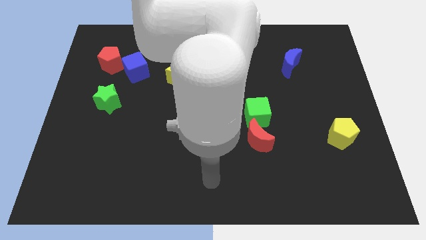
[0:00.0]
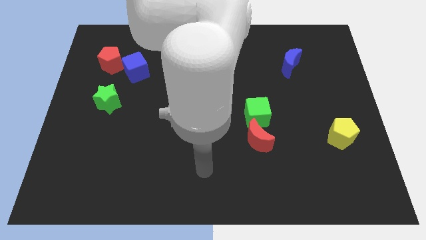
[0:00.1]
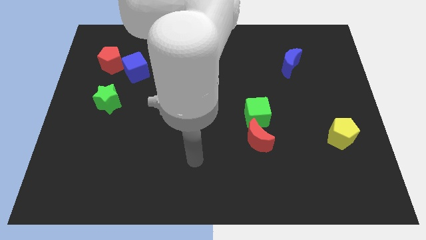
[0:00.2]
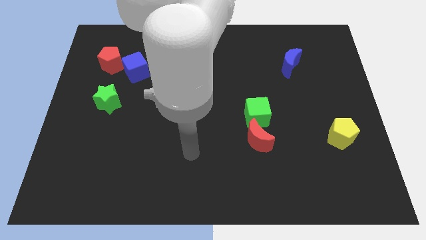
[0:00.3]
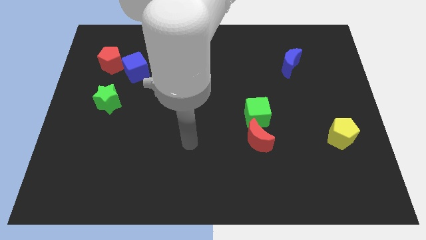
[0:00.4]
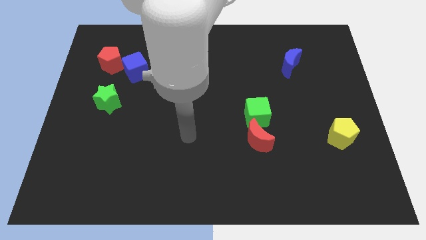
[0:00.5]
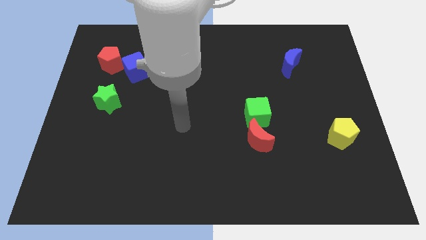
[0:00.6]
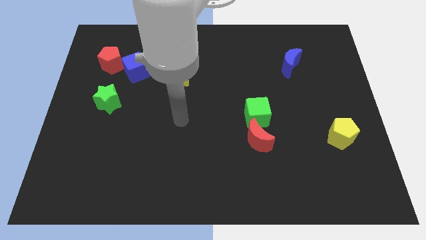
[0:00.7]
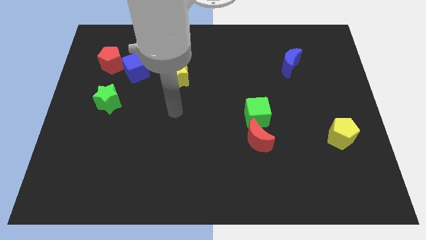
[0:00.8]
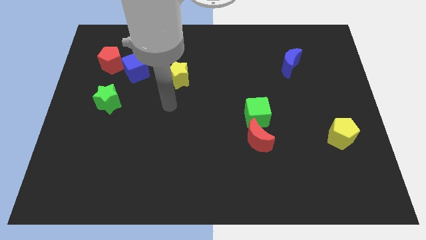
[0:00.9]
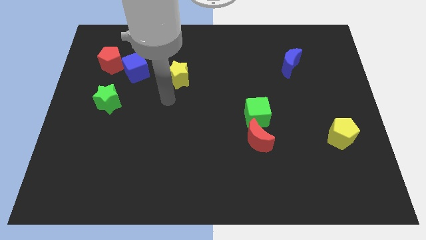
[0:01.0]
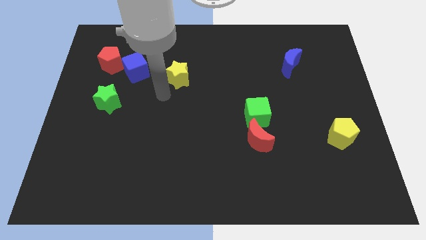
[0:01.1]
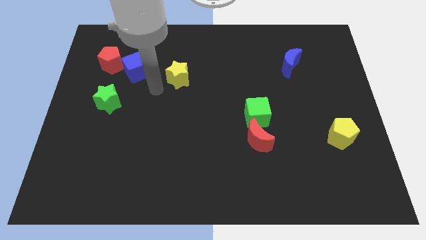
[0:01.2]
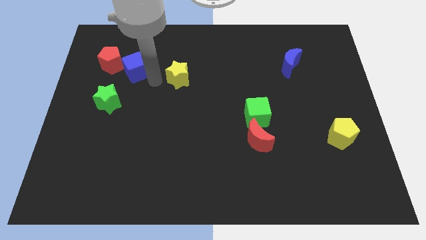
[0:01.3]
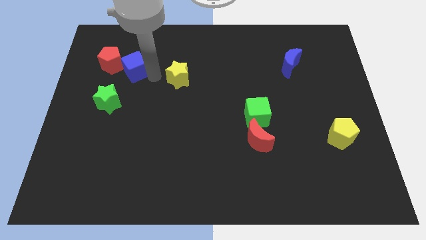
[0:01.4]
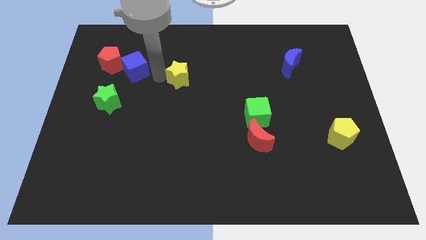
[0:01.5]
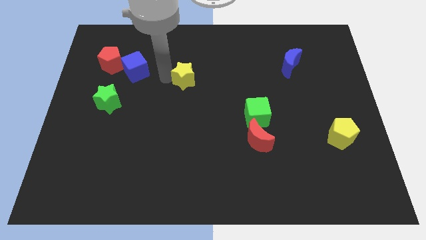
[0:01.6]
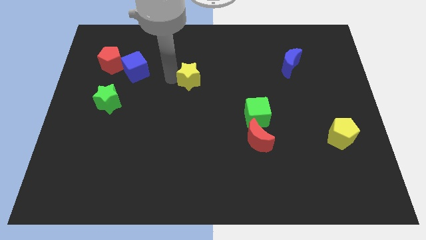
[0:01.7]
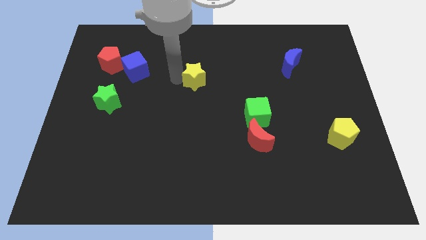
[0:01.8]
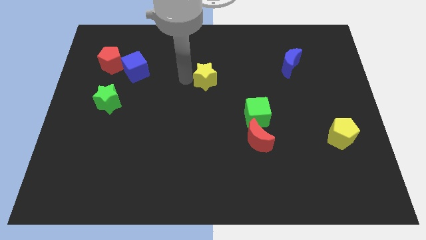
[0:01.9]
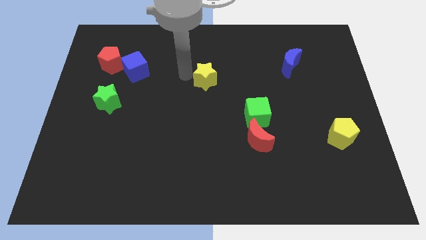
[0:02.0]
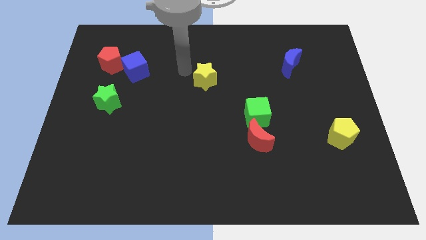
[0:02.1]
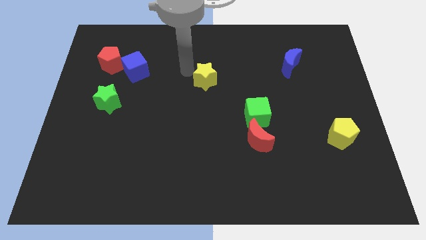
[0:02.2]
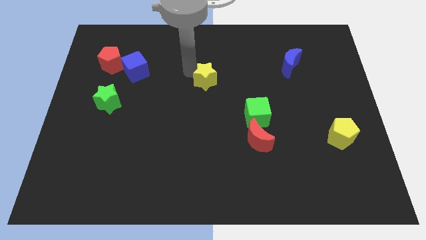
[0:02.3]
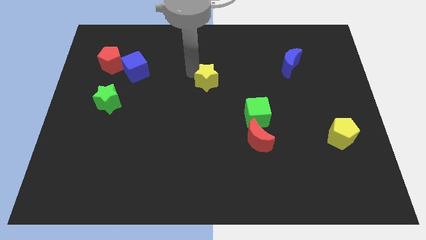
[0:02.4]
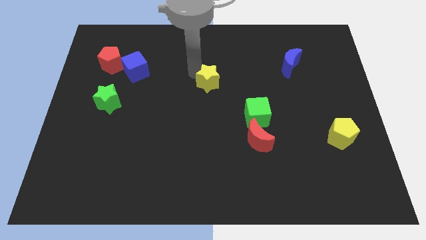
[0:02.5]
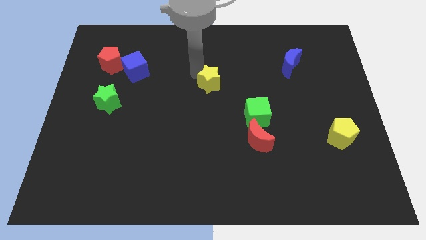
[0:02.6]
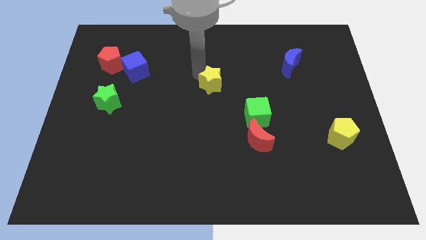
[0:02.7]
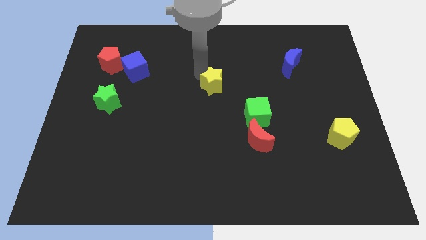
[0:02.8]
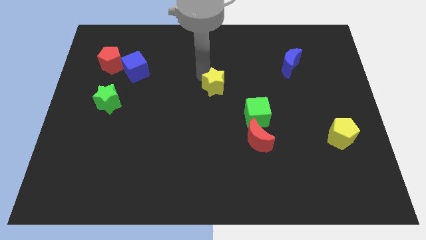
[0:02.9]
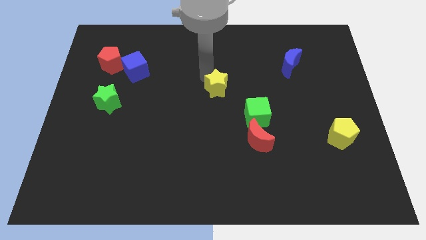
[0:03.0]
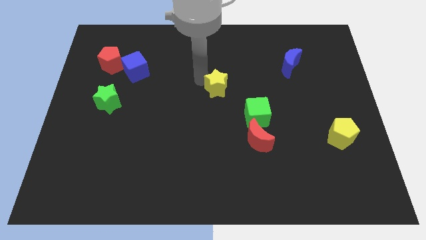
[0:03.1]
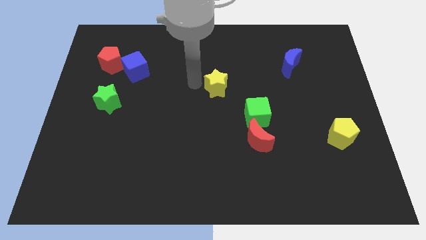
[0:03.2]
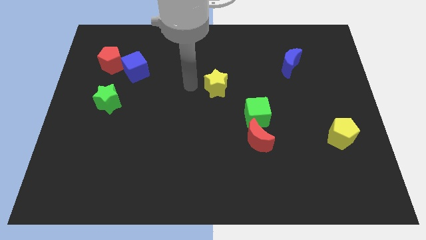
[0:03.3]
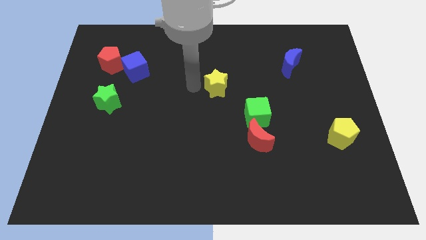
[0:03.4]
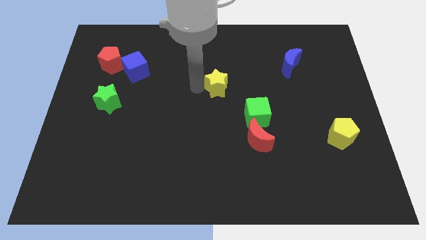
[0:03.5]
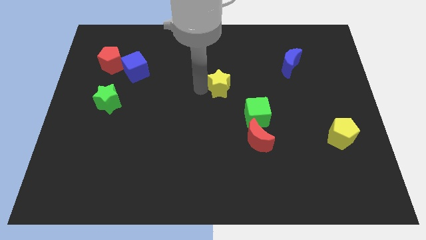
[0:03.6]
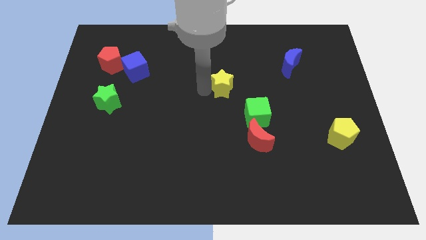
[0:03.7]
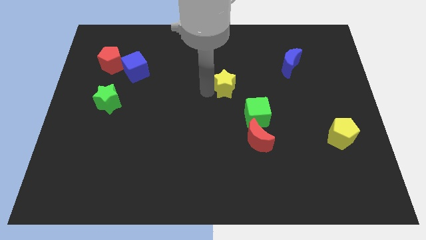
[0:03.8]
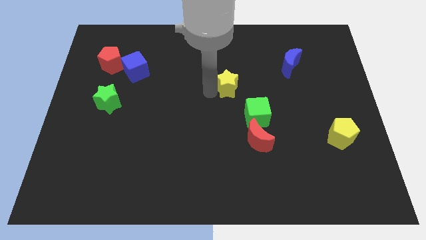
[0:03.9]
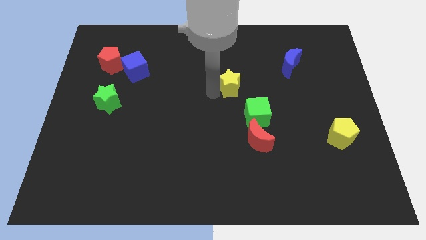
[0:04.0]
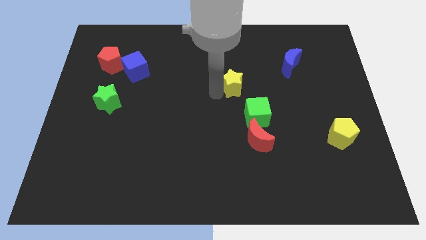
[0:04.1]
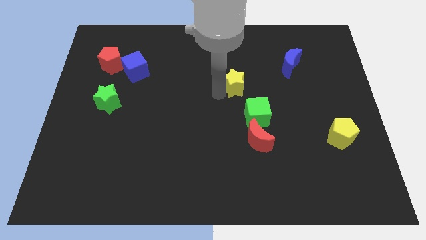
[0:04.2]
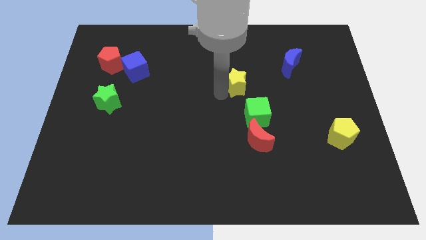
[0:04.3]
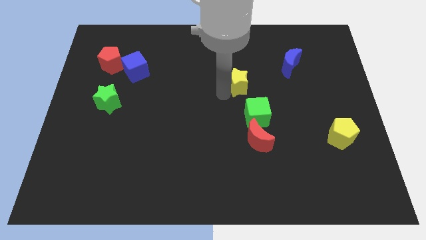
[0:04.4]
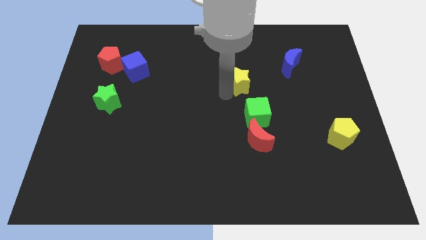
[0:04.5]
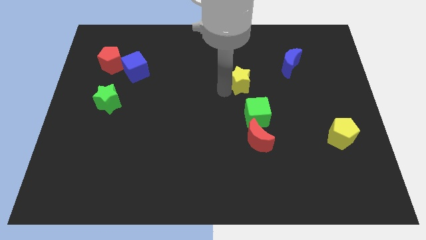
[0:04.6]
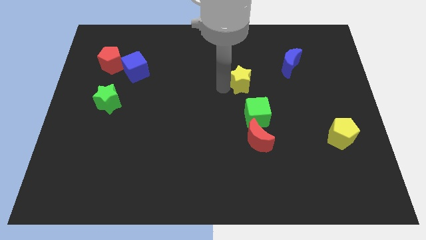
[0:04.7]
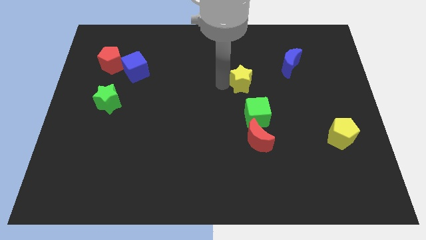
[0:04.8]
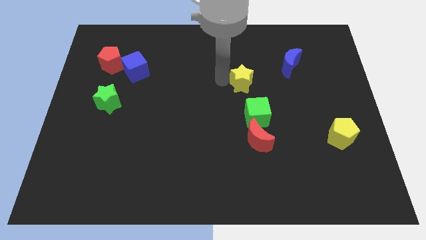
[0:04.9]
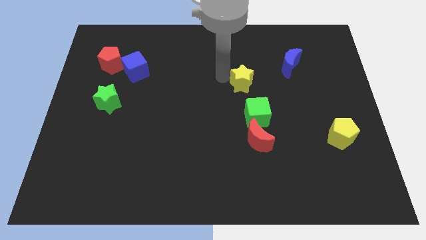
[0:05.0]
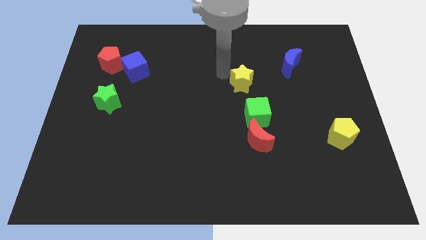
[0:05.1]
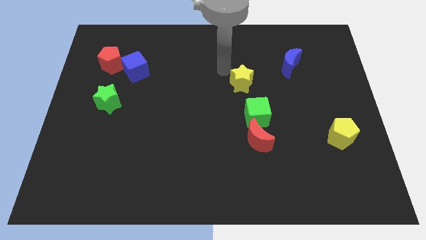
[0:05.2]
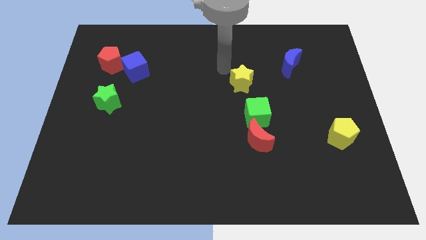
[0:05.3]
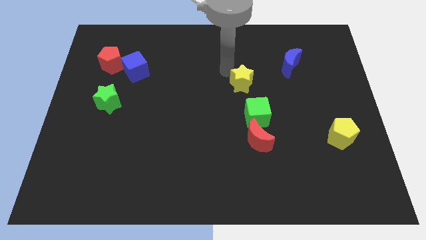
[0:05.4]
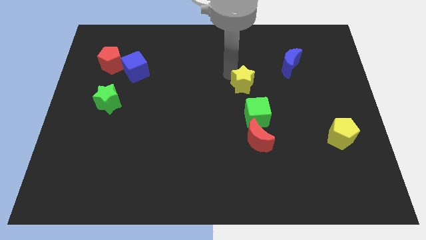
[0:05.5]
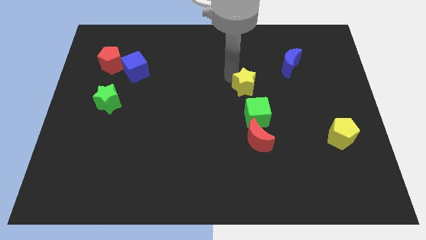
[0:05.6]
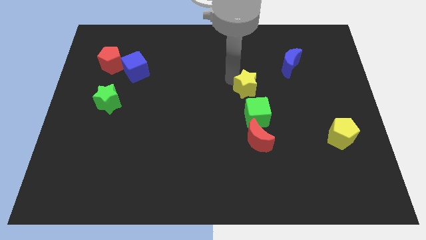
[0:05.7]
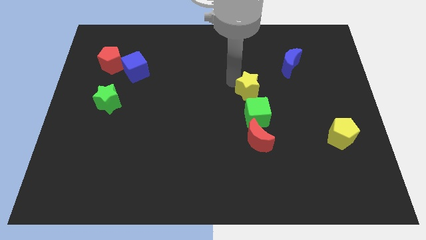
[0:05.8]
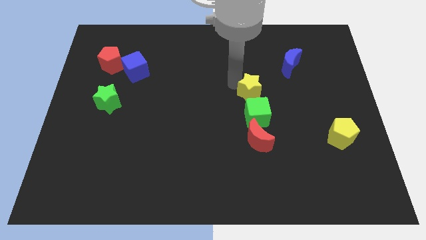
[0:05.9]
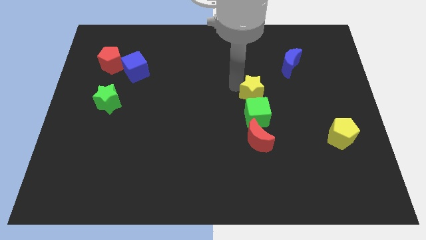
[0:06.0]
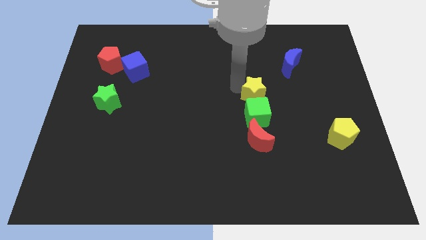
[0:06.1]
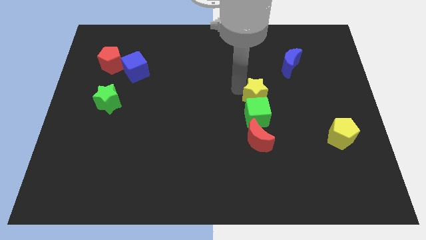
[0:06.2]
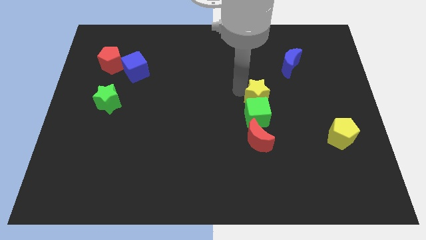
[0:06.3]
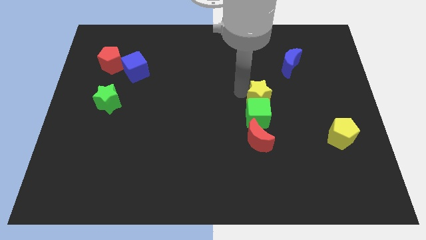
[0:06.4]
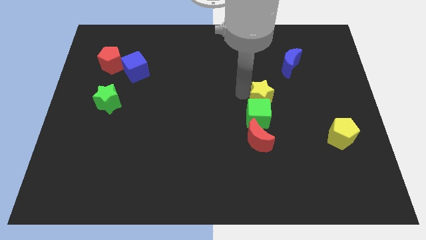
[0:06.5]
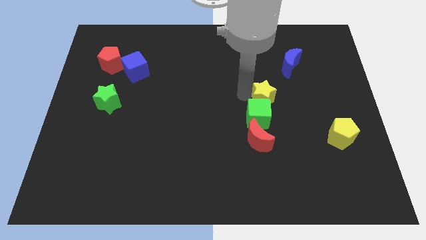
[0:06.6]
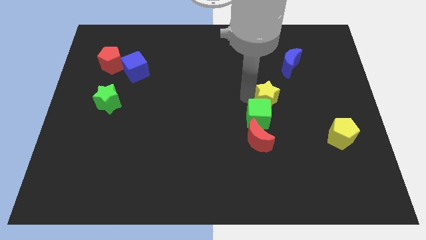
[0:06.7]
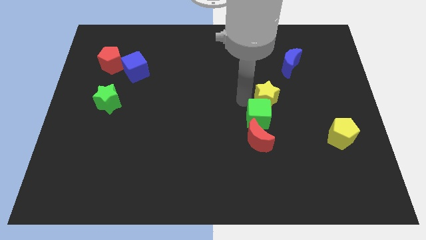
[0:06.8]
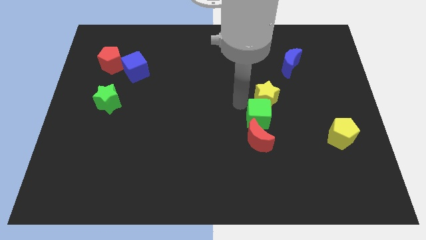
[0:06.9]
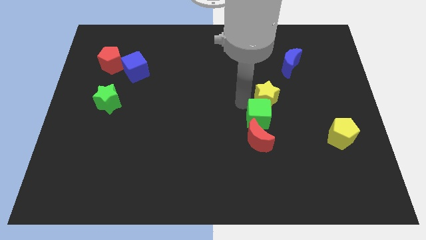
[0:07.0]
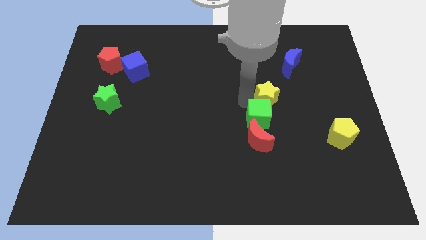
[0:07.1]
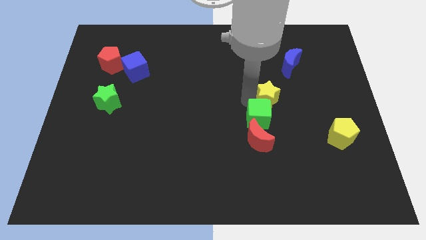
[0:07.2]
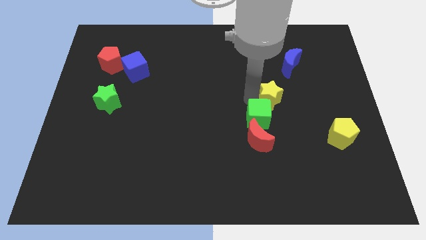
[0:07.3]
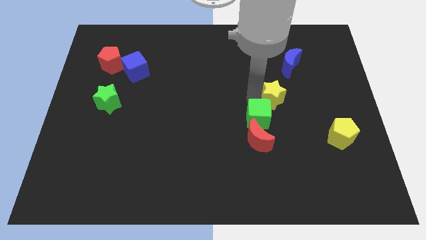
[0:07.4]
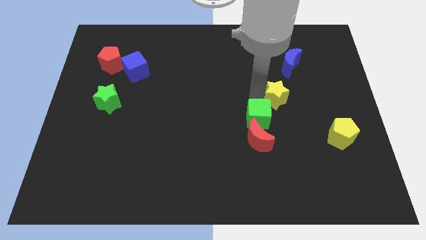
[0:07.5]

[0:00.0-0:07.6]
move the yellow star below the blue moon
